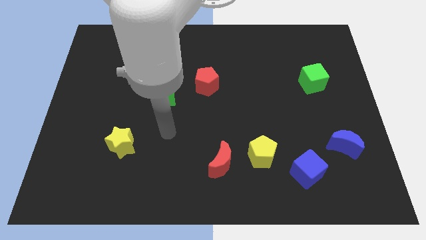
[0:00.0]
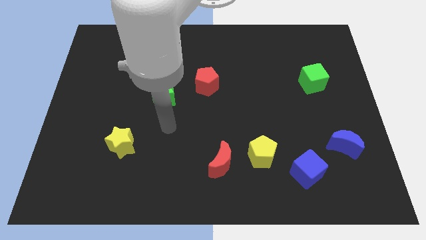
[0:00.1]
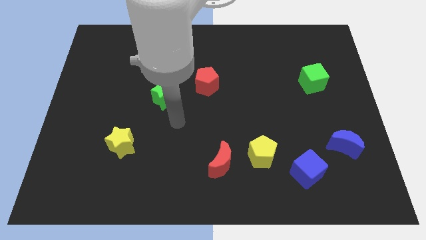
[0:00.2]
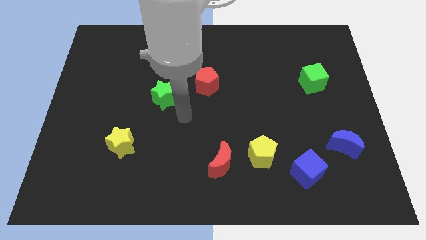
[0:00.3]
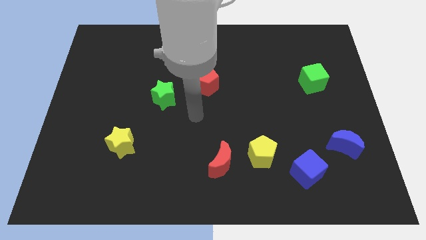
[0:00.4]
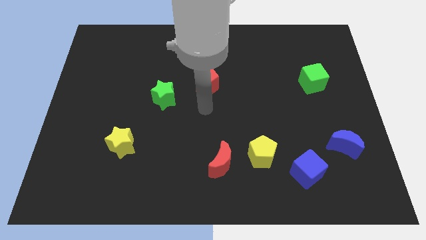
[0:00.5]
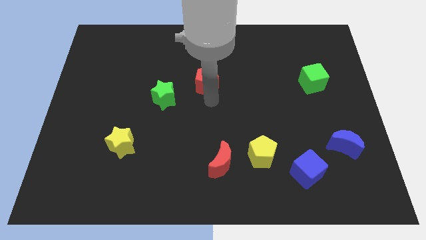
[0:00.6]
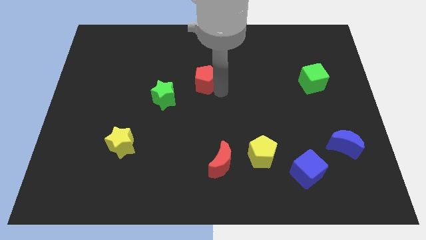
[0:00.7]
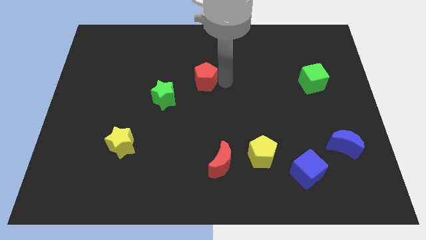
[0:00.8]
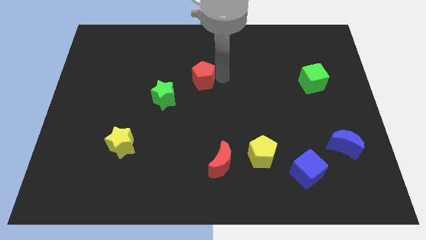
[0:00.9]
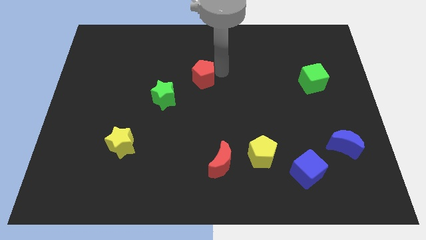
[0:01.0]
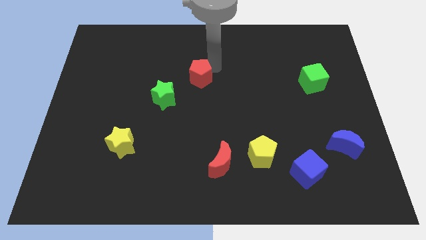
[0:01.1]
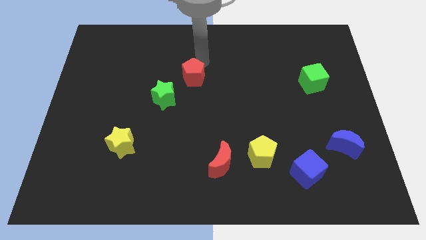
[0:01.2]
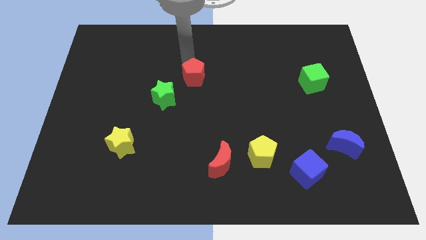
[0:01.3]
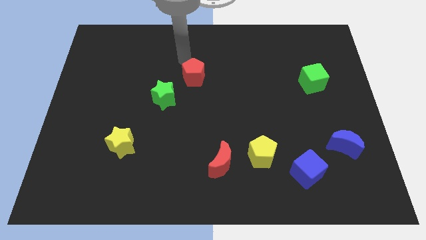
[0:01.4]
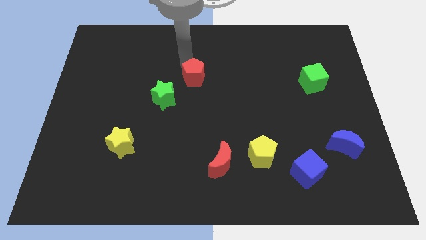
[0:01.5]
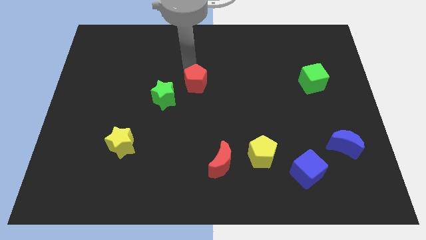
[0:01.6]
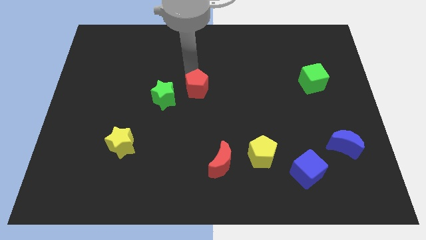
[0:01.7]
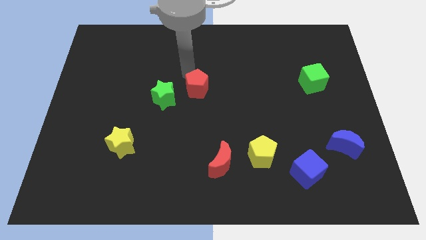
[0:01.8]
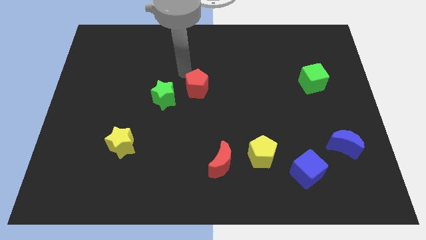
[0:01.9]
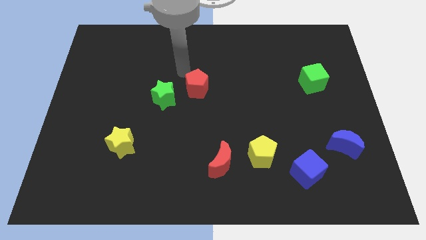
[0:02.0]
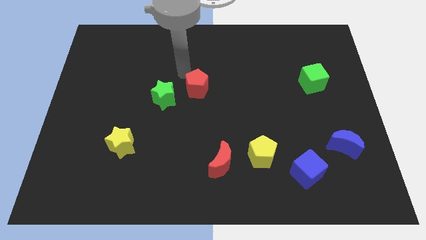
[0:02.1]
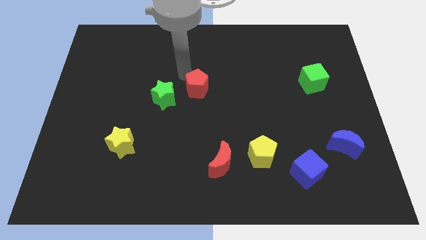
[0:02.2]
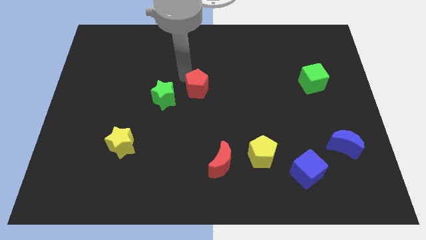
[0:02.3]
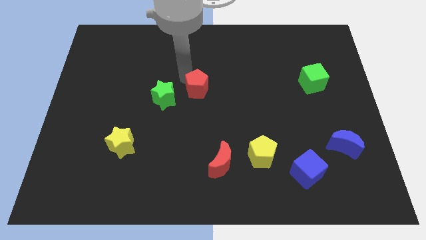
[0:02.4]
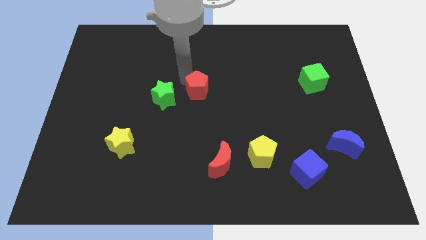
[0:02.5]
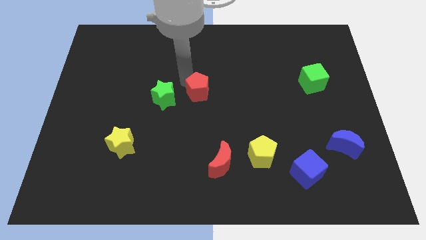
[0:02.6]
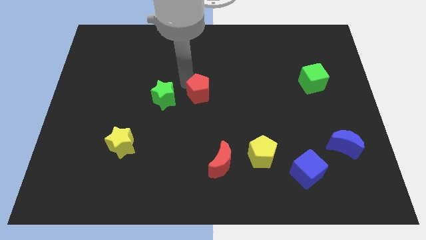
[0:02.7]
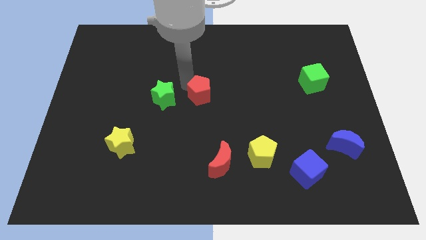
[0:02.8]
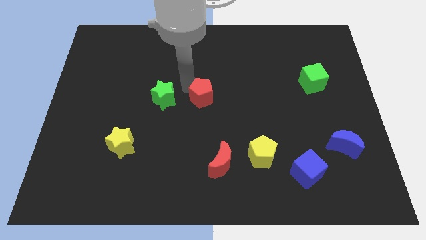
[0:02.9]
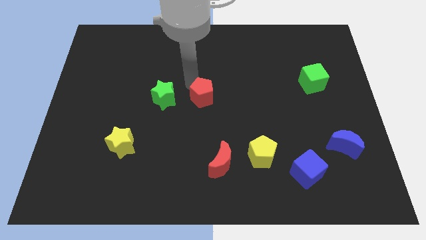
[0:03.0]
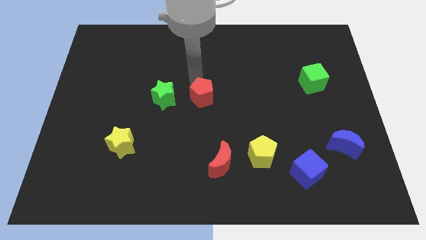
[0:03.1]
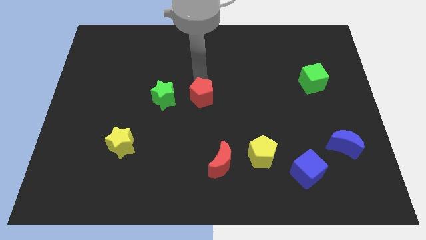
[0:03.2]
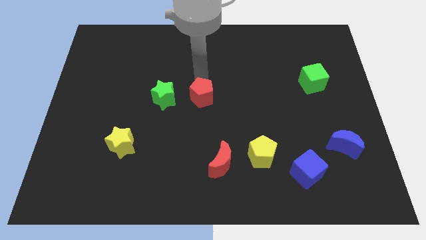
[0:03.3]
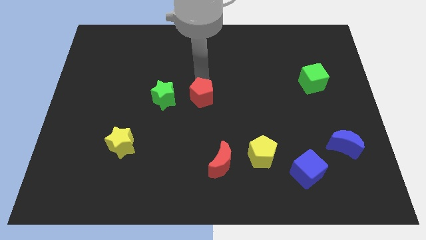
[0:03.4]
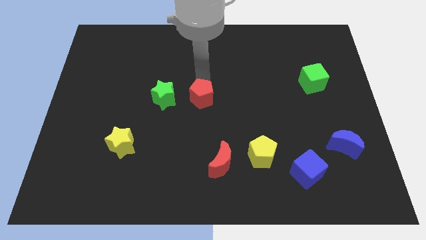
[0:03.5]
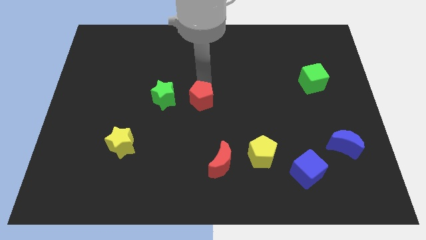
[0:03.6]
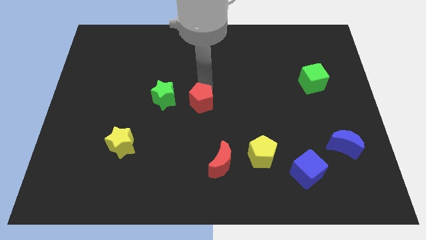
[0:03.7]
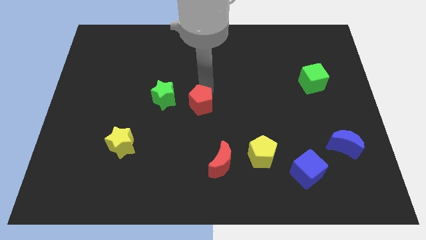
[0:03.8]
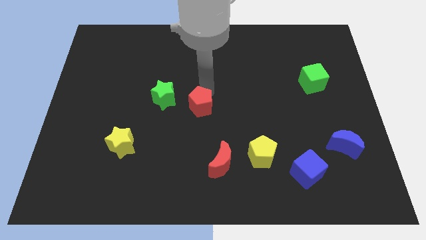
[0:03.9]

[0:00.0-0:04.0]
slightly move the red pentagon downwards

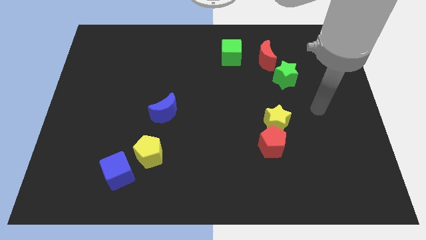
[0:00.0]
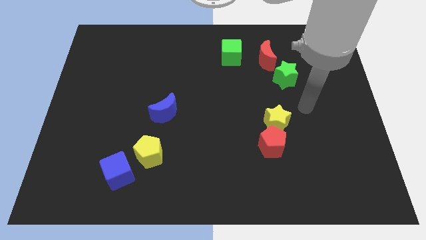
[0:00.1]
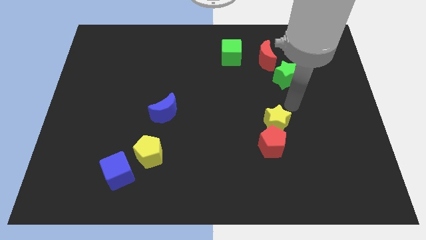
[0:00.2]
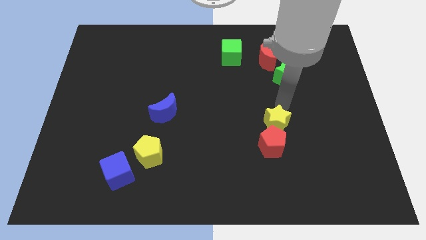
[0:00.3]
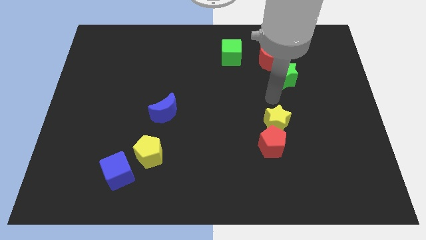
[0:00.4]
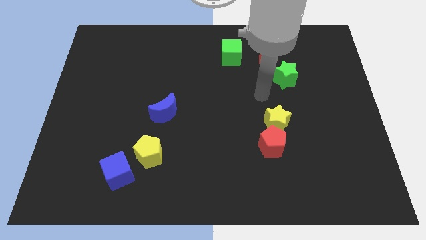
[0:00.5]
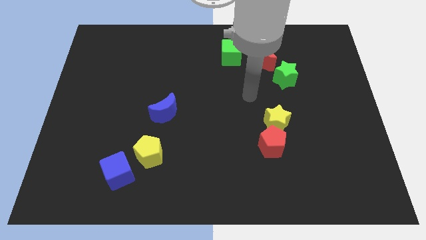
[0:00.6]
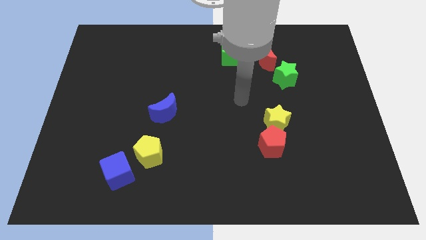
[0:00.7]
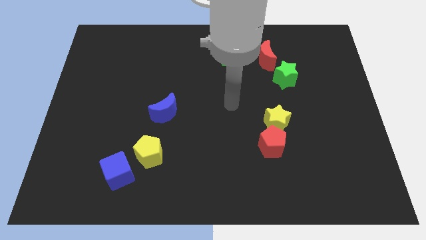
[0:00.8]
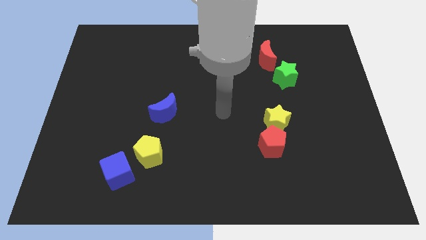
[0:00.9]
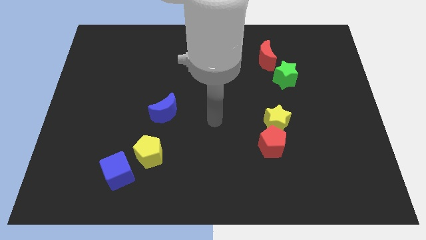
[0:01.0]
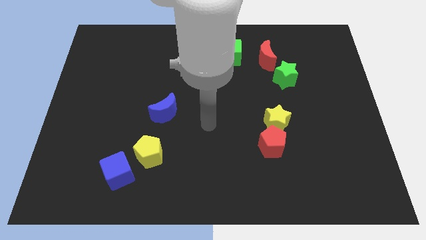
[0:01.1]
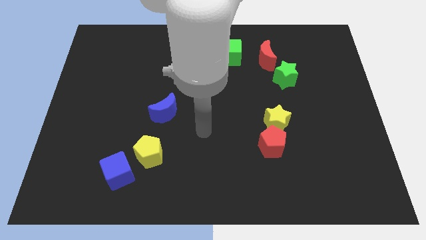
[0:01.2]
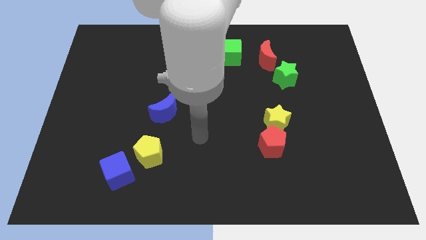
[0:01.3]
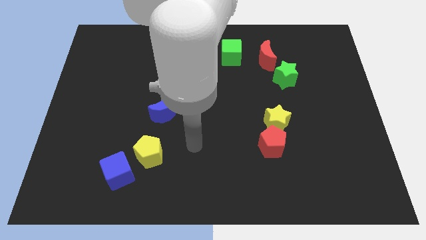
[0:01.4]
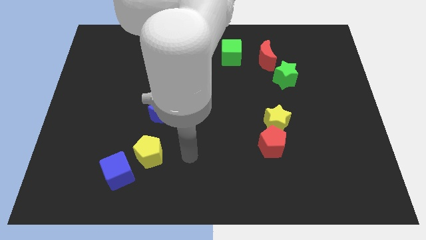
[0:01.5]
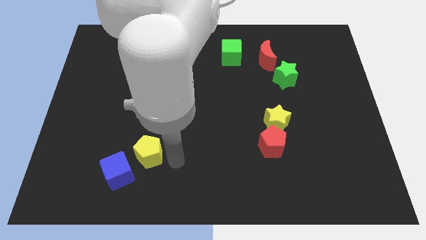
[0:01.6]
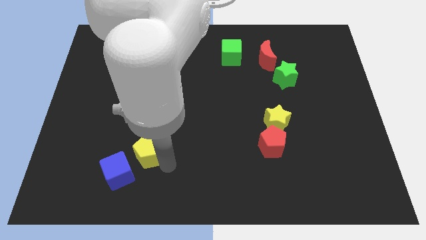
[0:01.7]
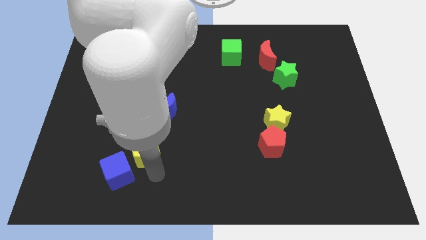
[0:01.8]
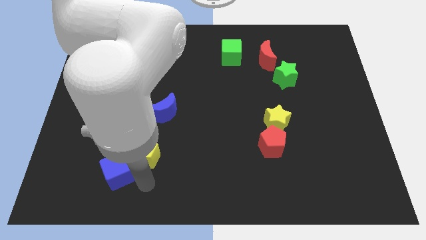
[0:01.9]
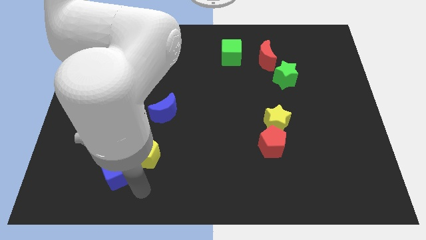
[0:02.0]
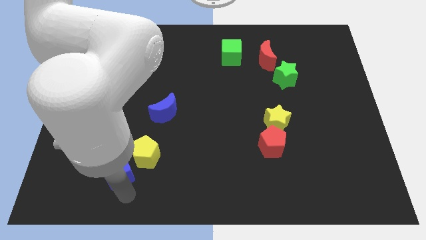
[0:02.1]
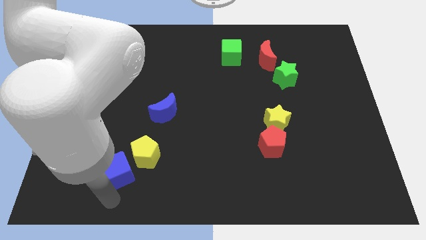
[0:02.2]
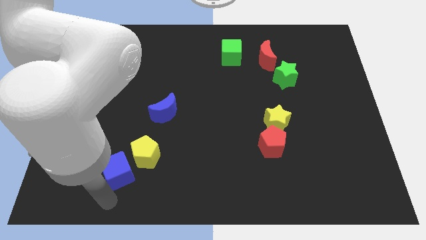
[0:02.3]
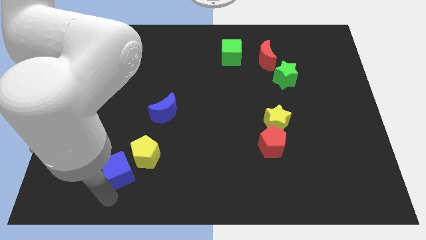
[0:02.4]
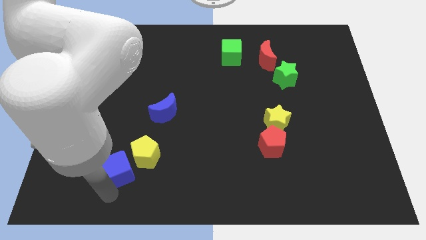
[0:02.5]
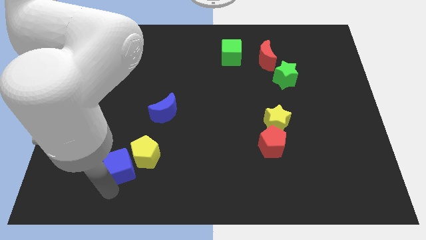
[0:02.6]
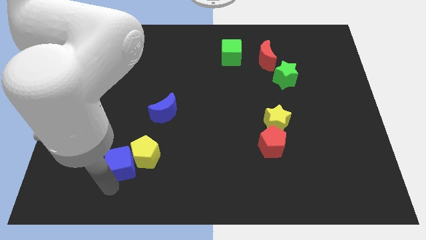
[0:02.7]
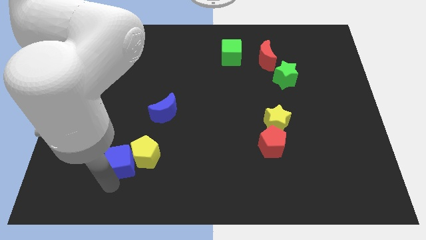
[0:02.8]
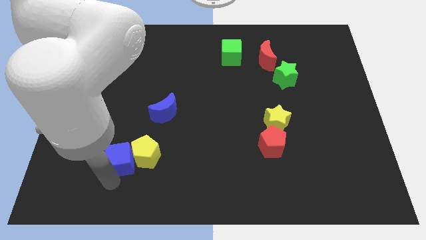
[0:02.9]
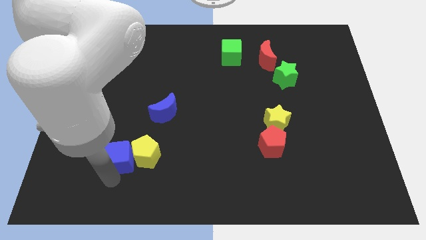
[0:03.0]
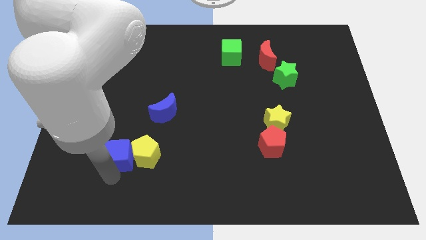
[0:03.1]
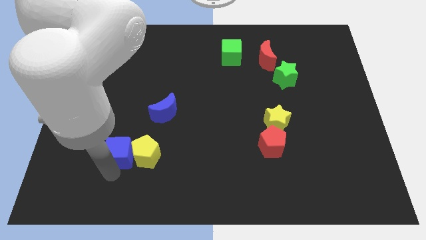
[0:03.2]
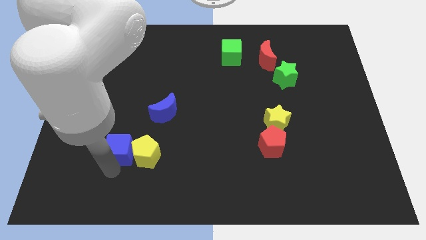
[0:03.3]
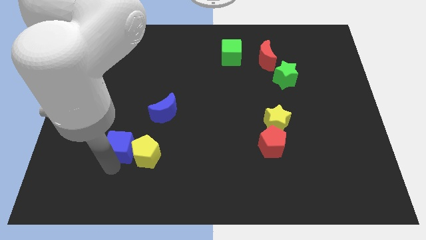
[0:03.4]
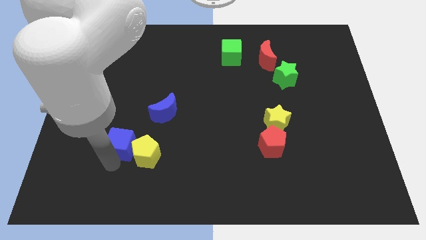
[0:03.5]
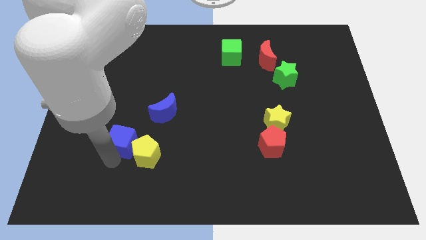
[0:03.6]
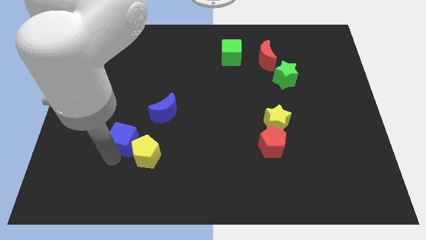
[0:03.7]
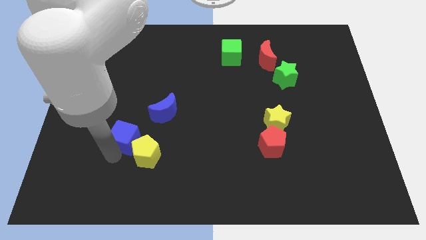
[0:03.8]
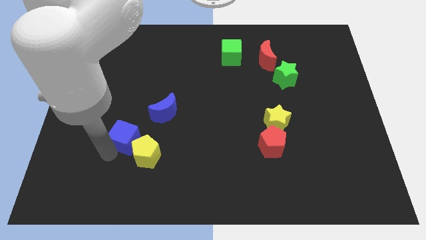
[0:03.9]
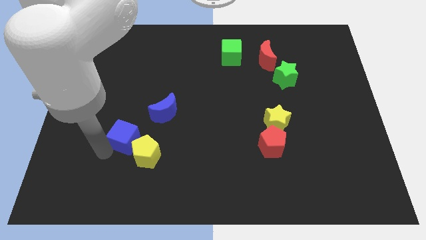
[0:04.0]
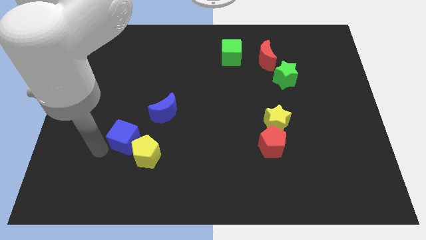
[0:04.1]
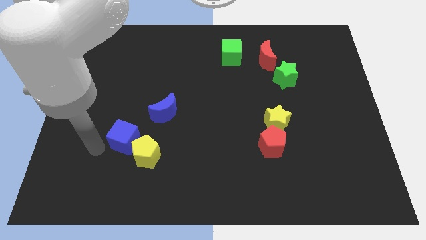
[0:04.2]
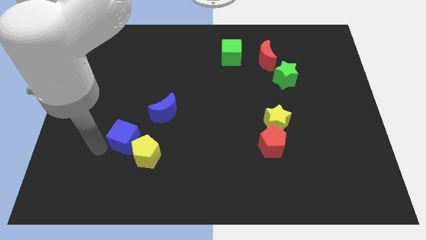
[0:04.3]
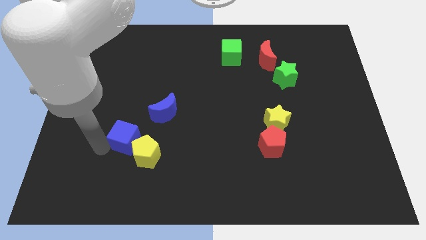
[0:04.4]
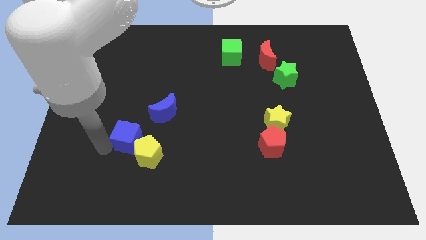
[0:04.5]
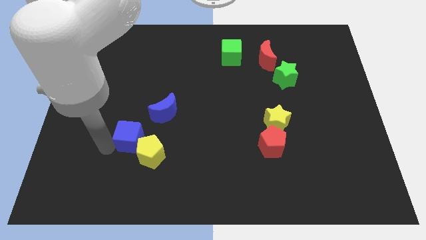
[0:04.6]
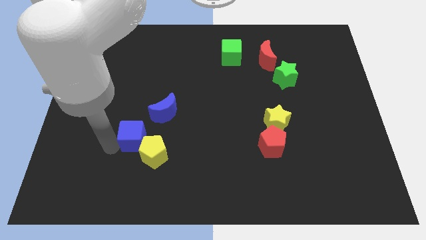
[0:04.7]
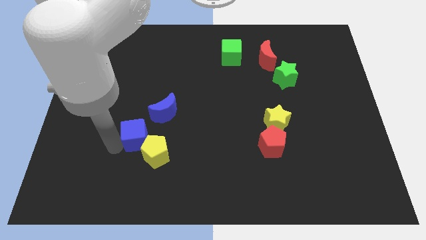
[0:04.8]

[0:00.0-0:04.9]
push the blue cube slightly upwards and right
